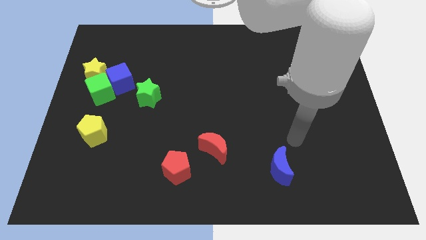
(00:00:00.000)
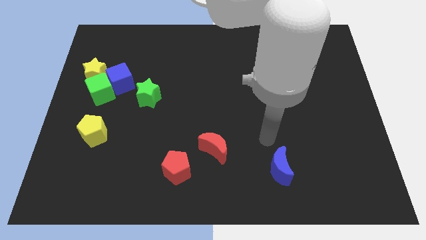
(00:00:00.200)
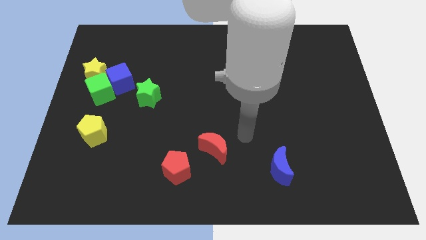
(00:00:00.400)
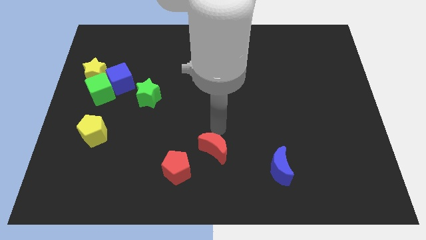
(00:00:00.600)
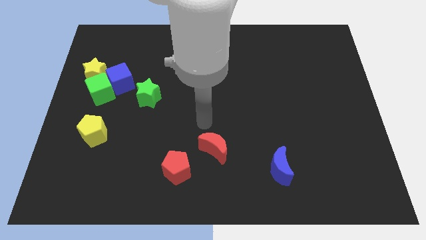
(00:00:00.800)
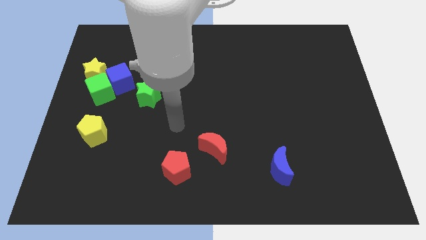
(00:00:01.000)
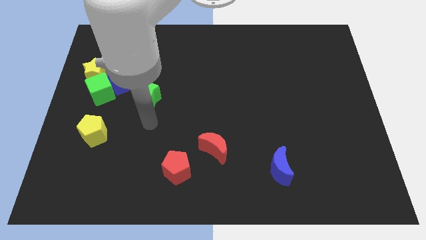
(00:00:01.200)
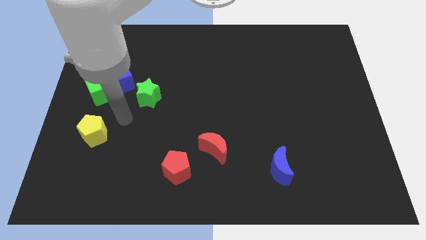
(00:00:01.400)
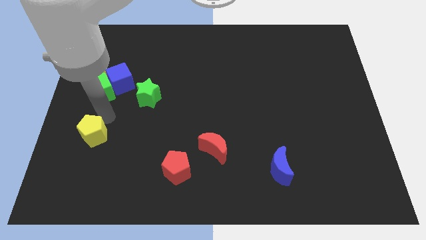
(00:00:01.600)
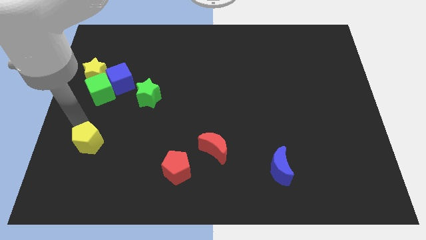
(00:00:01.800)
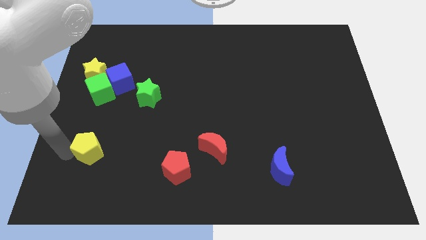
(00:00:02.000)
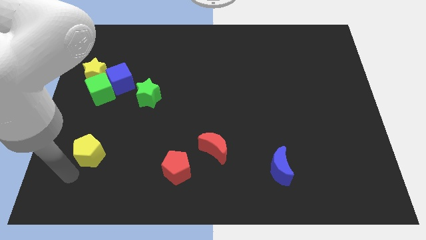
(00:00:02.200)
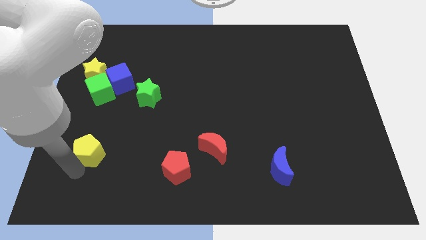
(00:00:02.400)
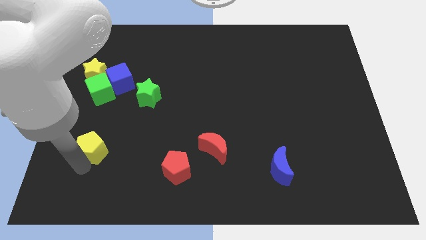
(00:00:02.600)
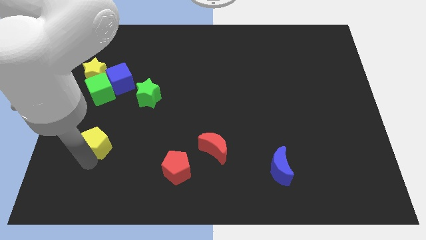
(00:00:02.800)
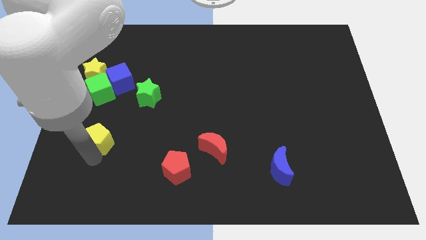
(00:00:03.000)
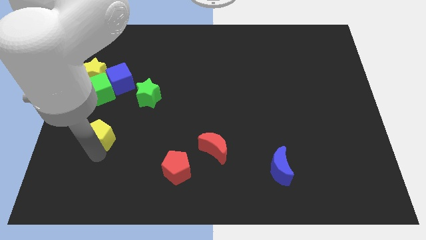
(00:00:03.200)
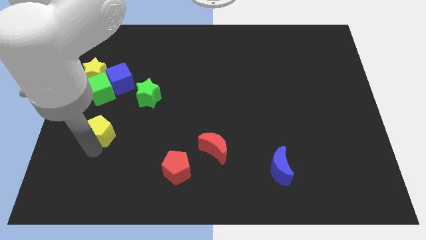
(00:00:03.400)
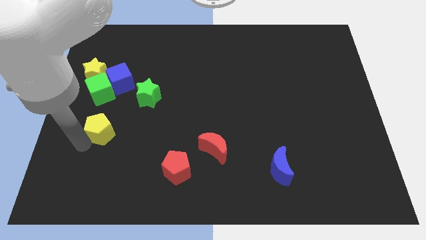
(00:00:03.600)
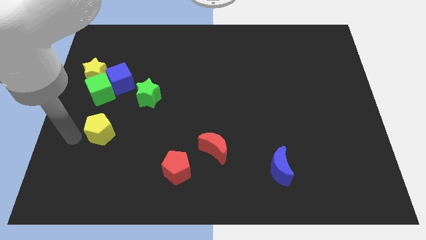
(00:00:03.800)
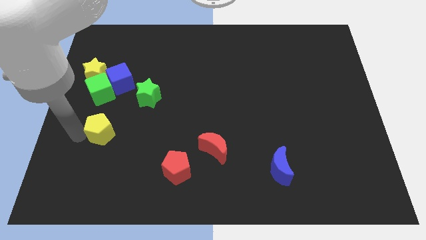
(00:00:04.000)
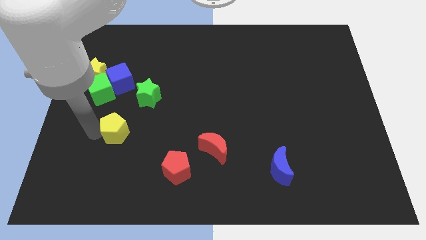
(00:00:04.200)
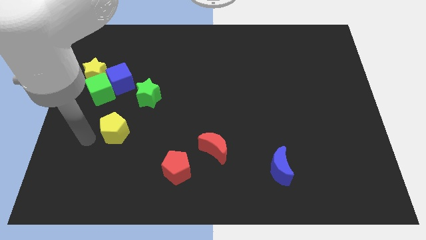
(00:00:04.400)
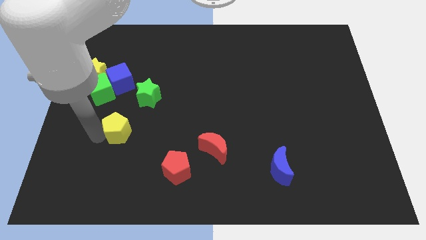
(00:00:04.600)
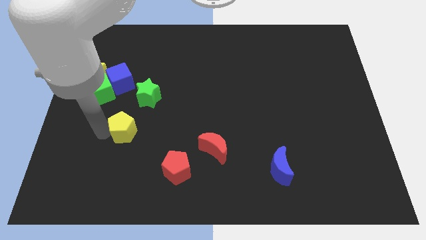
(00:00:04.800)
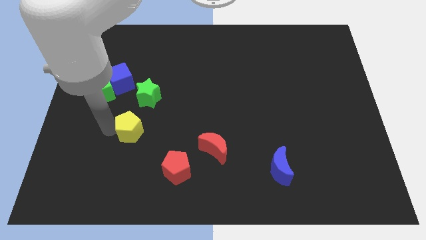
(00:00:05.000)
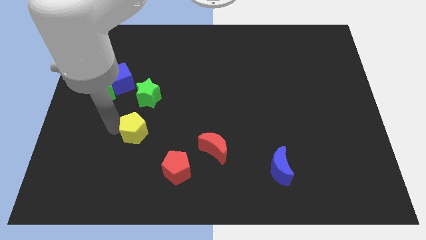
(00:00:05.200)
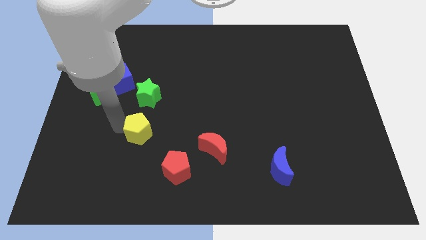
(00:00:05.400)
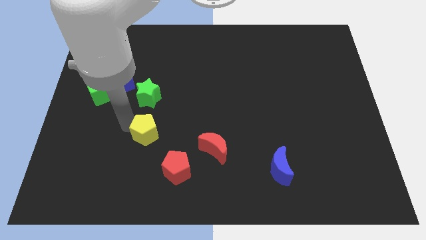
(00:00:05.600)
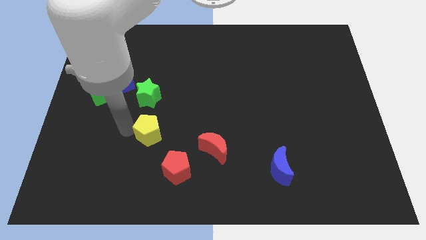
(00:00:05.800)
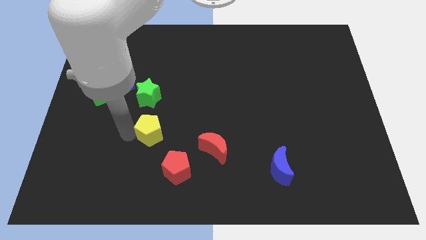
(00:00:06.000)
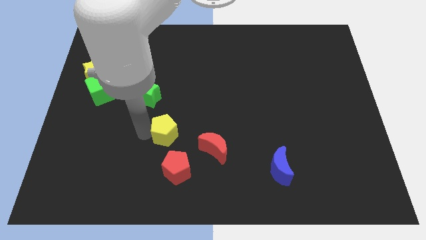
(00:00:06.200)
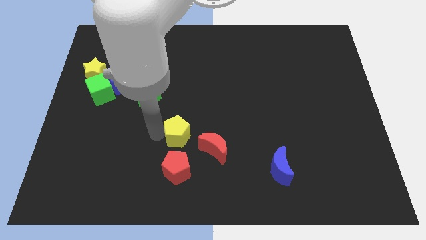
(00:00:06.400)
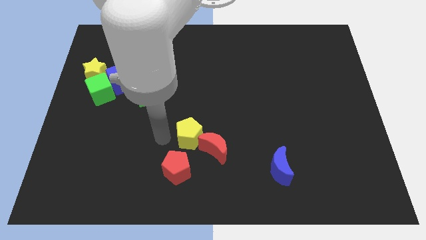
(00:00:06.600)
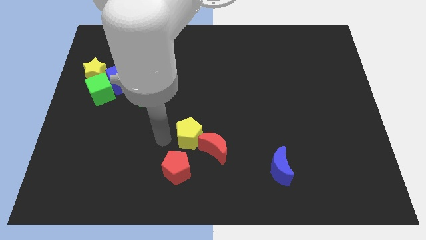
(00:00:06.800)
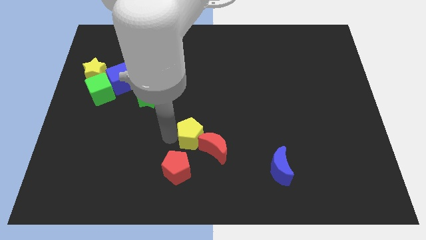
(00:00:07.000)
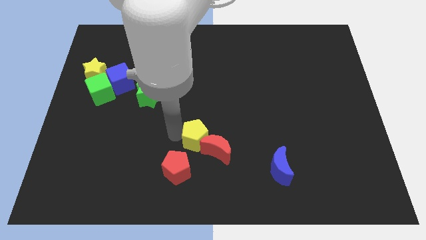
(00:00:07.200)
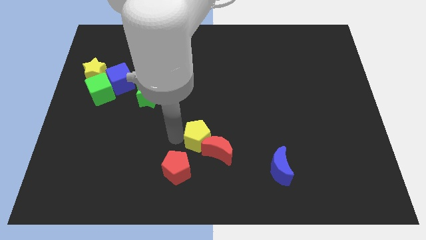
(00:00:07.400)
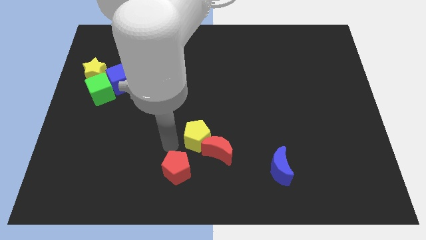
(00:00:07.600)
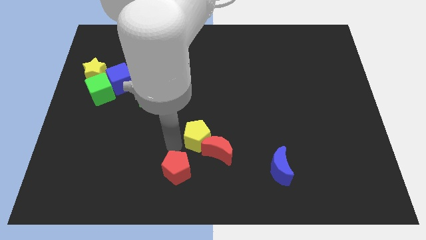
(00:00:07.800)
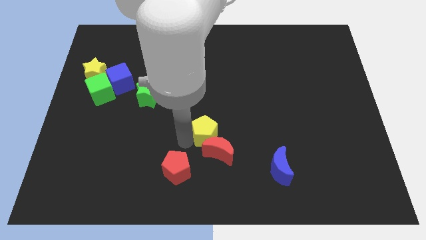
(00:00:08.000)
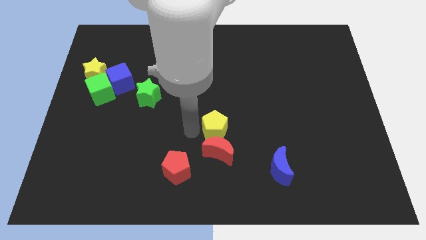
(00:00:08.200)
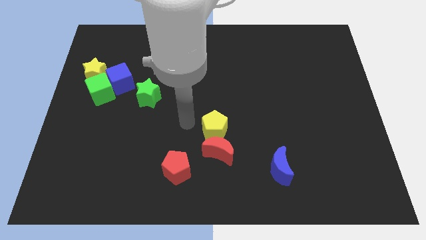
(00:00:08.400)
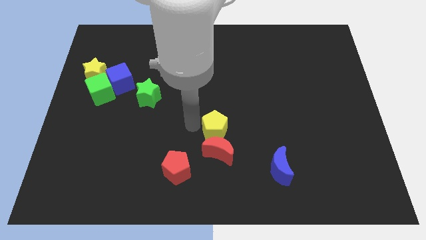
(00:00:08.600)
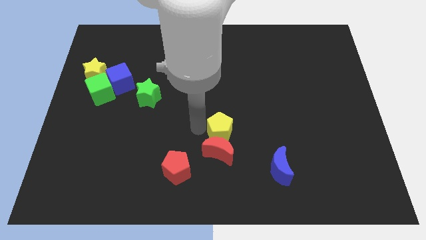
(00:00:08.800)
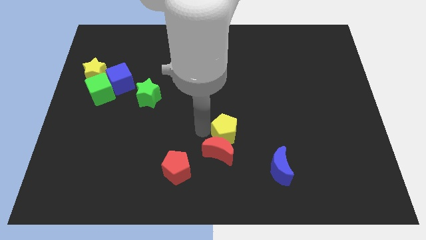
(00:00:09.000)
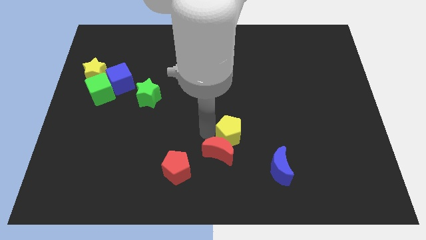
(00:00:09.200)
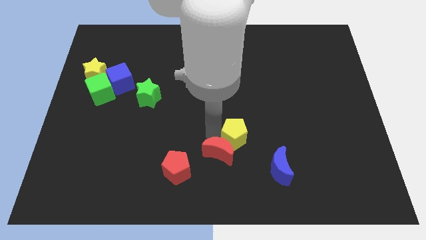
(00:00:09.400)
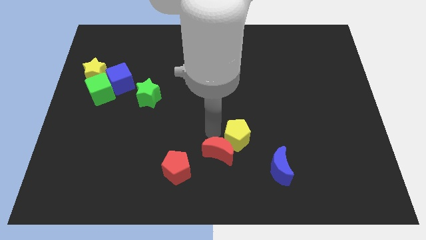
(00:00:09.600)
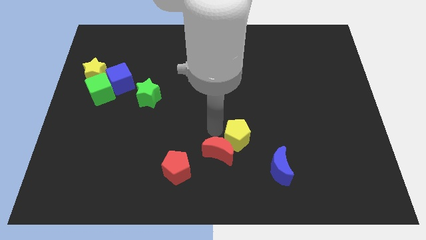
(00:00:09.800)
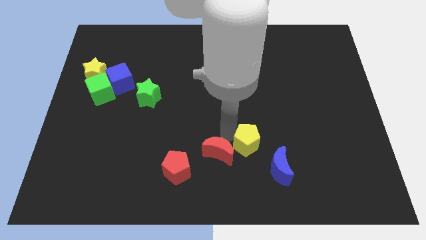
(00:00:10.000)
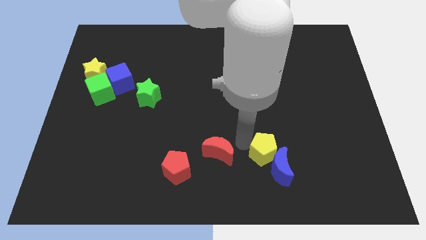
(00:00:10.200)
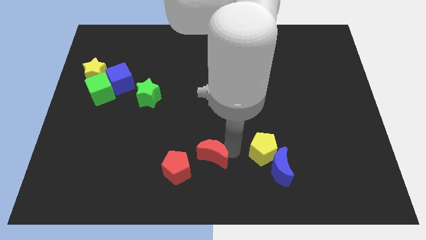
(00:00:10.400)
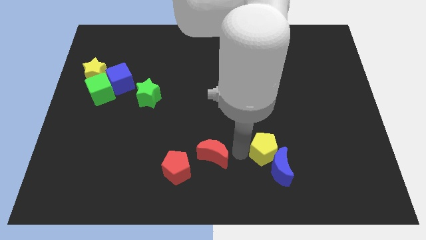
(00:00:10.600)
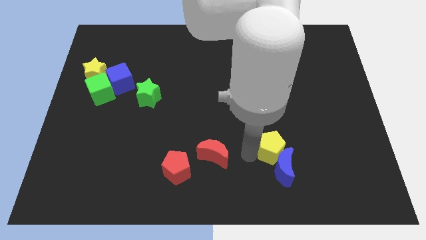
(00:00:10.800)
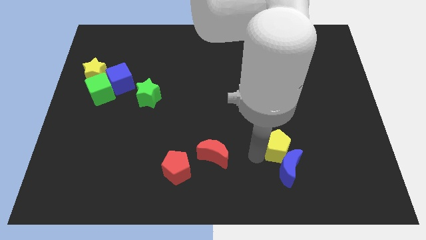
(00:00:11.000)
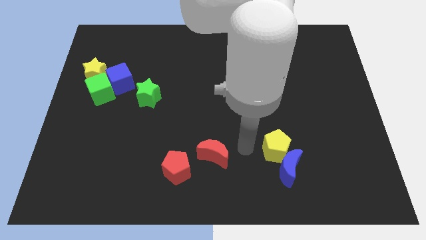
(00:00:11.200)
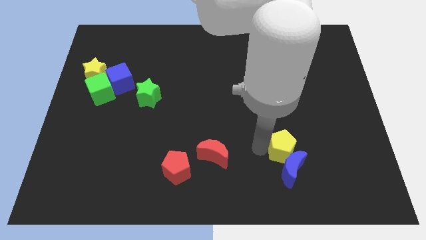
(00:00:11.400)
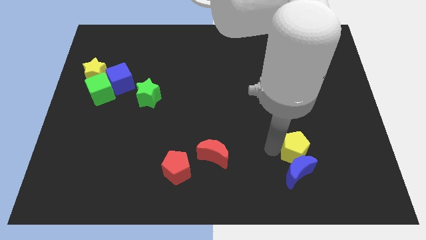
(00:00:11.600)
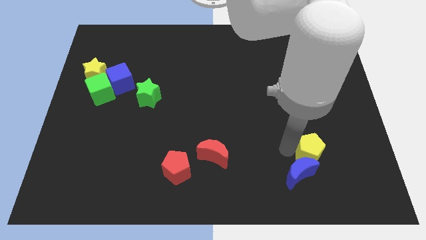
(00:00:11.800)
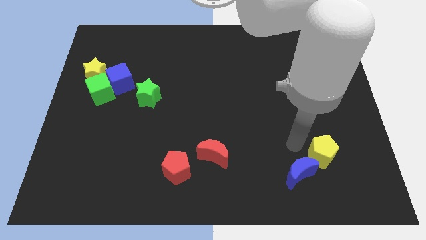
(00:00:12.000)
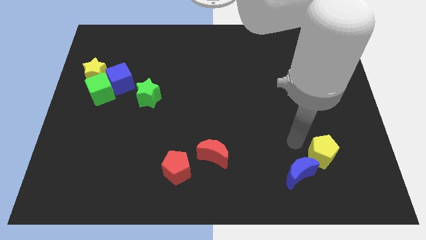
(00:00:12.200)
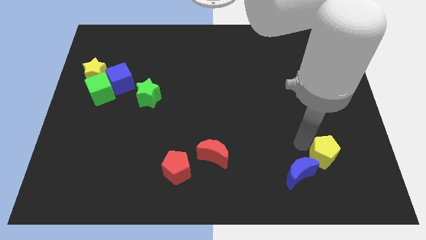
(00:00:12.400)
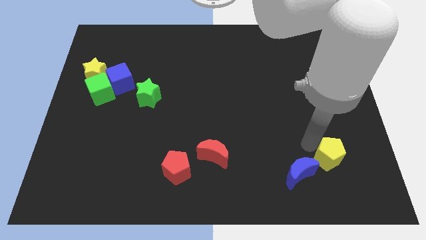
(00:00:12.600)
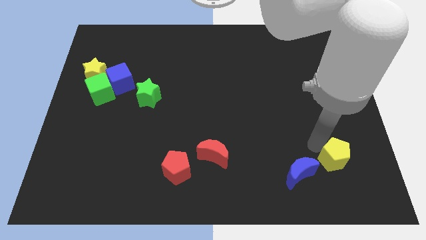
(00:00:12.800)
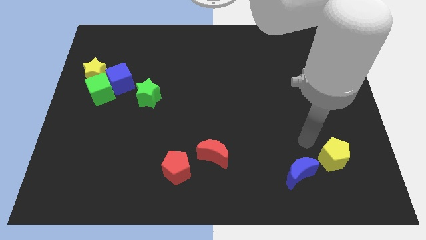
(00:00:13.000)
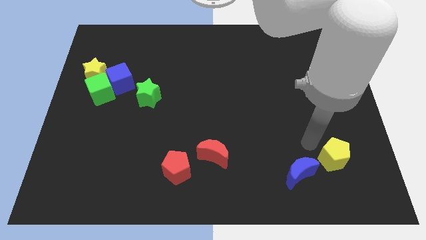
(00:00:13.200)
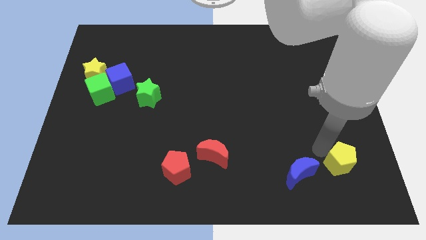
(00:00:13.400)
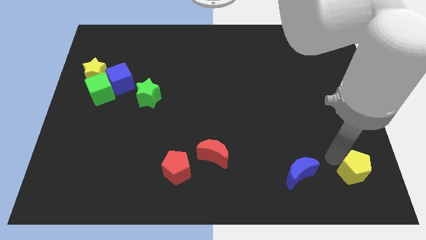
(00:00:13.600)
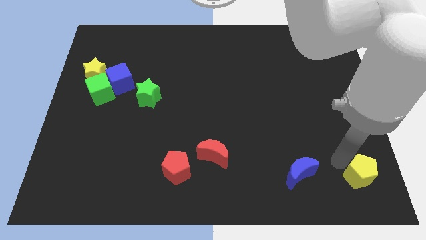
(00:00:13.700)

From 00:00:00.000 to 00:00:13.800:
push the yellow pentagon to the lower right corner
